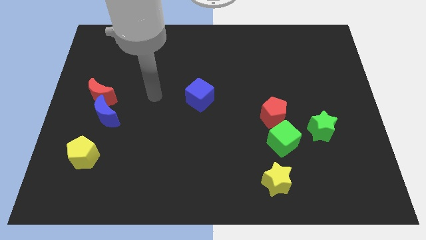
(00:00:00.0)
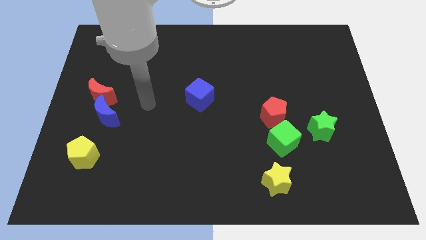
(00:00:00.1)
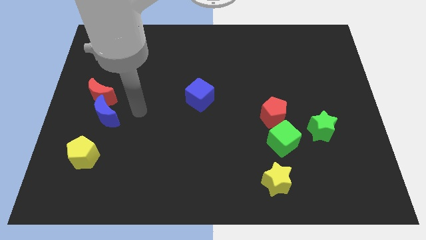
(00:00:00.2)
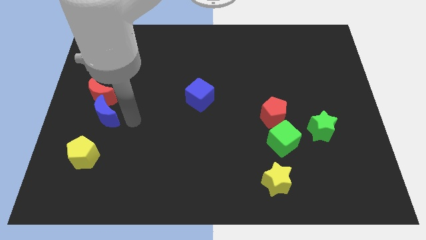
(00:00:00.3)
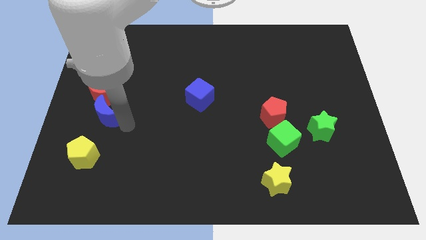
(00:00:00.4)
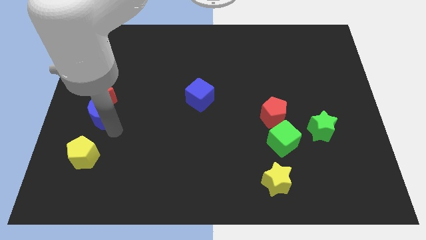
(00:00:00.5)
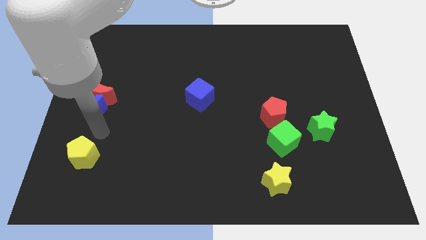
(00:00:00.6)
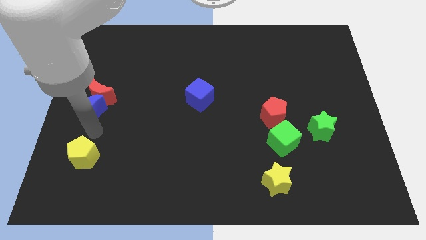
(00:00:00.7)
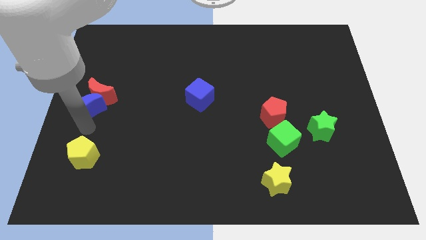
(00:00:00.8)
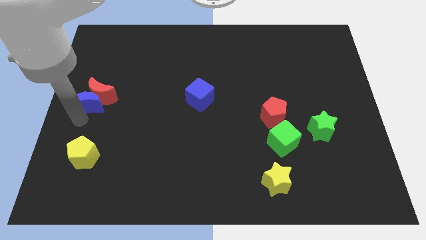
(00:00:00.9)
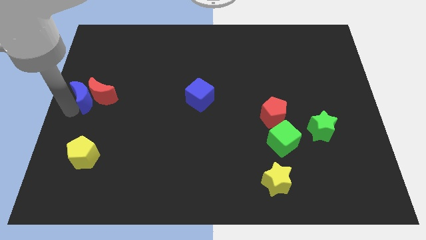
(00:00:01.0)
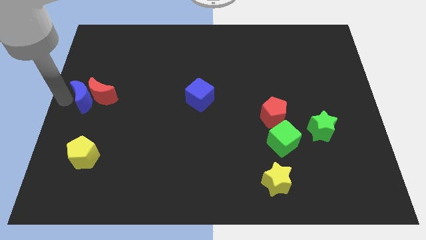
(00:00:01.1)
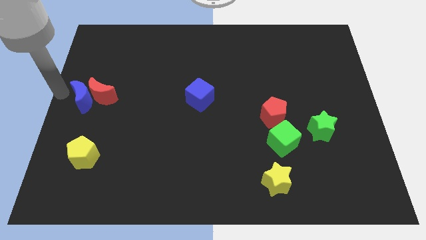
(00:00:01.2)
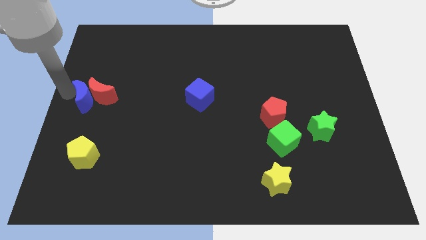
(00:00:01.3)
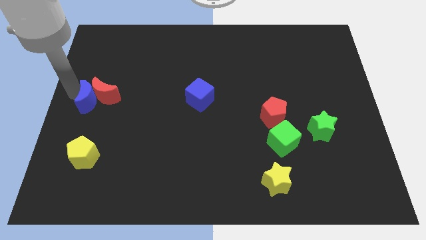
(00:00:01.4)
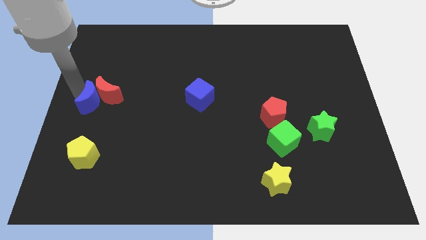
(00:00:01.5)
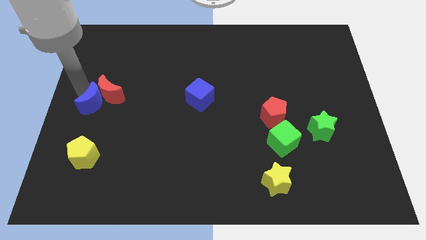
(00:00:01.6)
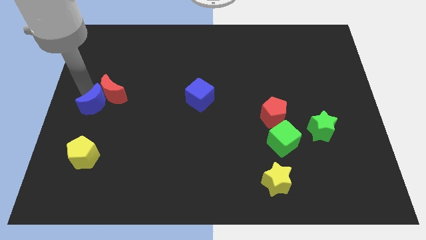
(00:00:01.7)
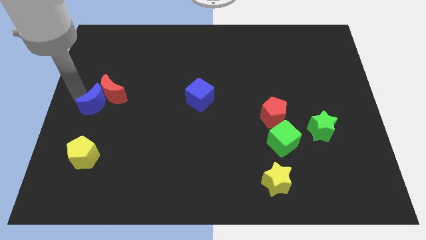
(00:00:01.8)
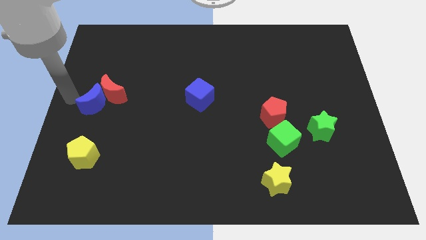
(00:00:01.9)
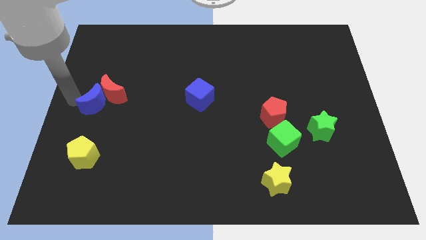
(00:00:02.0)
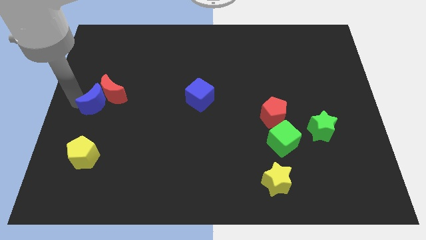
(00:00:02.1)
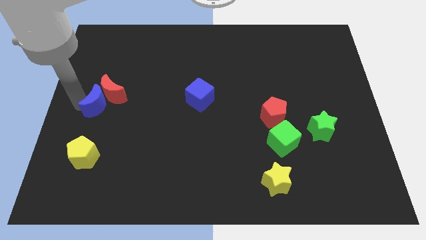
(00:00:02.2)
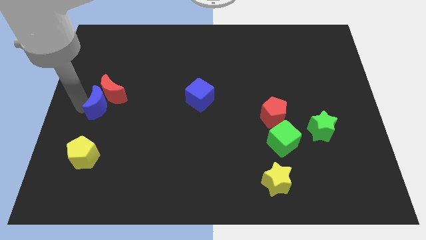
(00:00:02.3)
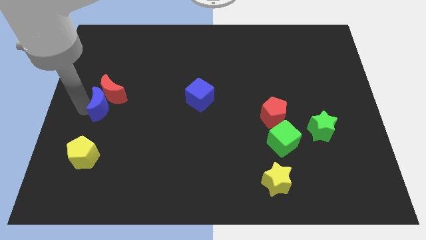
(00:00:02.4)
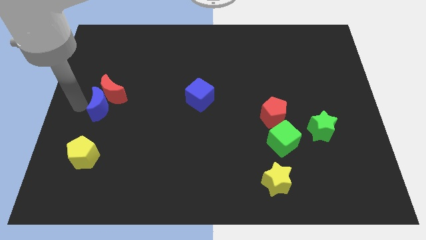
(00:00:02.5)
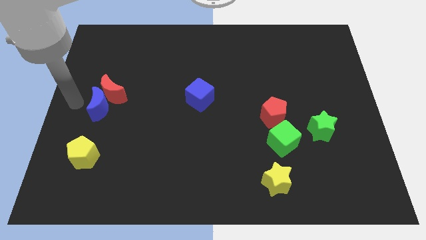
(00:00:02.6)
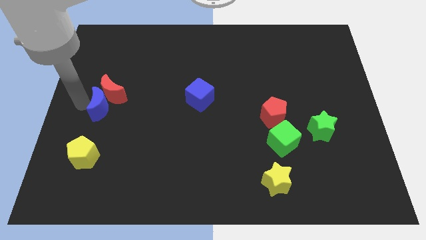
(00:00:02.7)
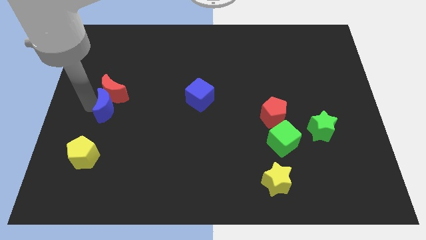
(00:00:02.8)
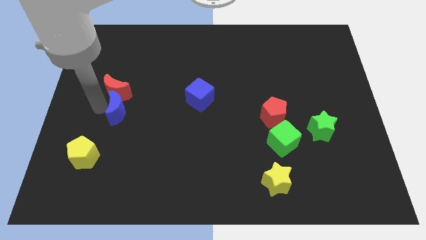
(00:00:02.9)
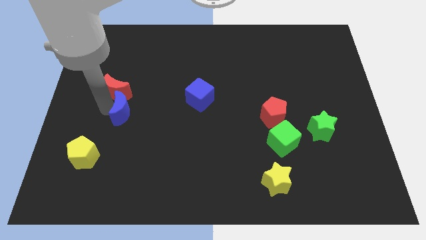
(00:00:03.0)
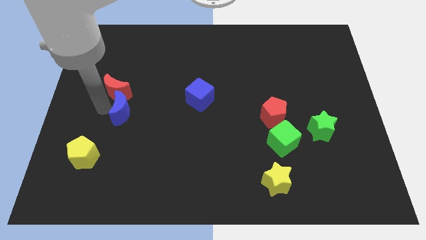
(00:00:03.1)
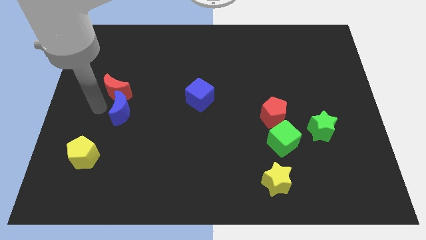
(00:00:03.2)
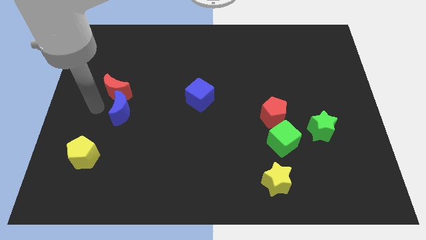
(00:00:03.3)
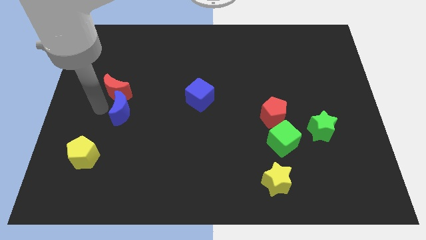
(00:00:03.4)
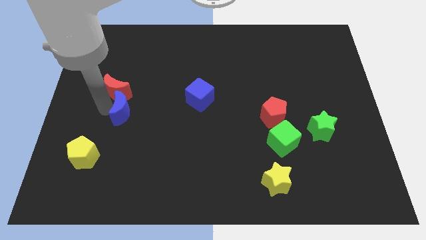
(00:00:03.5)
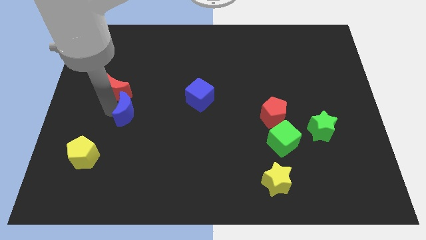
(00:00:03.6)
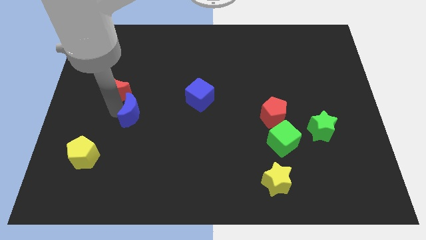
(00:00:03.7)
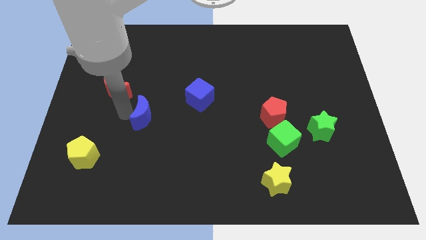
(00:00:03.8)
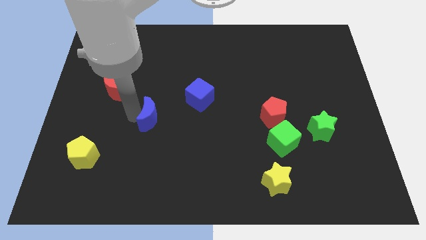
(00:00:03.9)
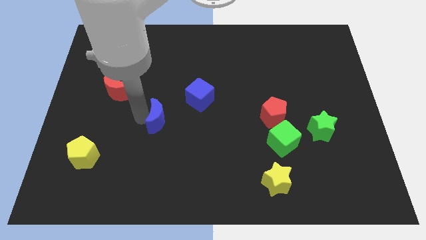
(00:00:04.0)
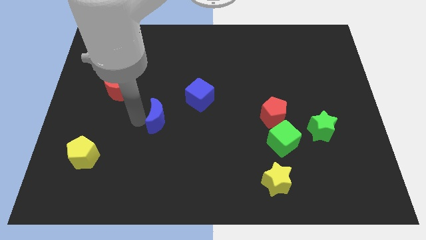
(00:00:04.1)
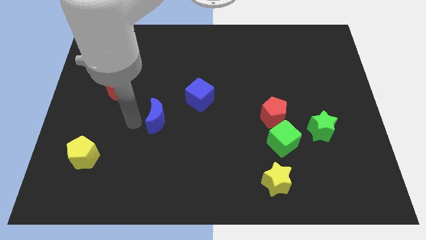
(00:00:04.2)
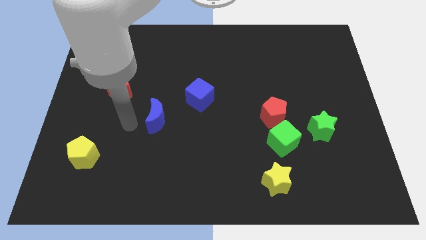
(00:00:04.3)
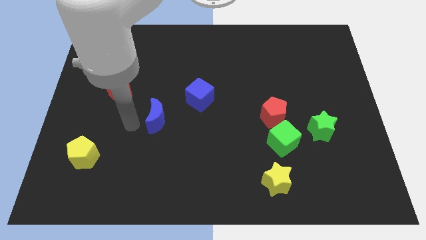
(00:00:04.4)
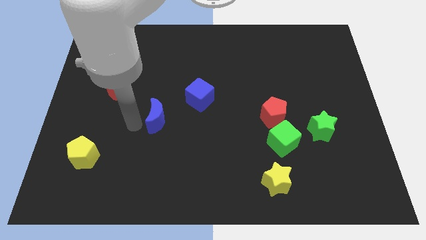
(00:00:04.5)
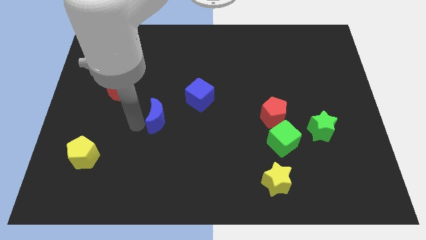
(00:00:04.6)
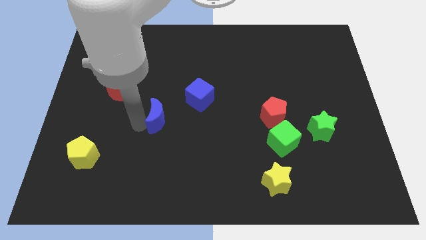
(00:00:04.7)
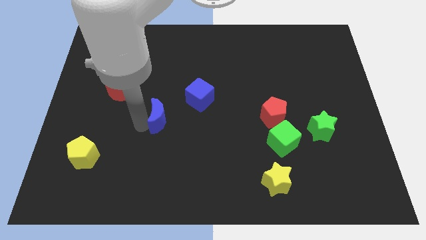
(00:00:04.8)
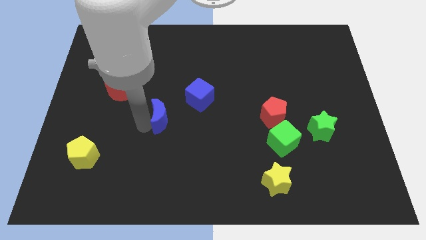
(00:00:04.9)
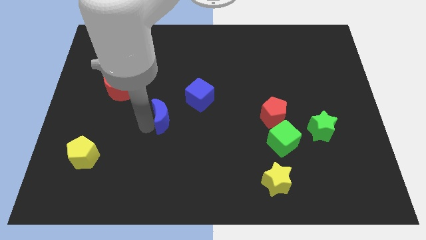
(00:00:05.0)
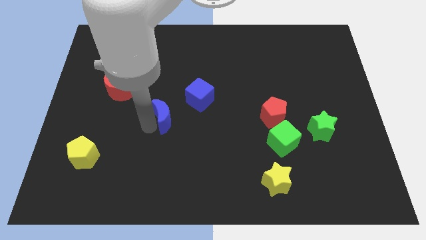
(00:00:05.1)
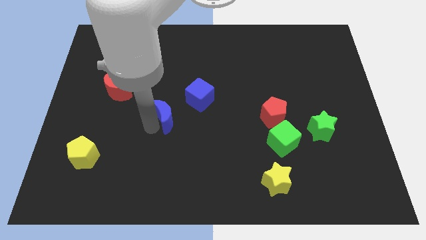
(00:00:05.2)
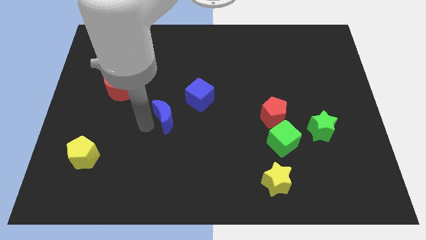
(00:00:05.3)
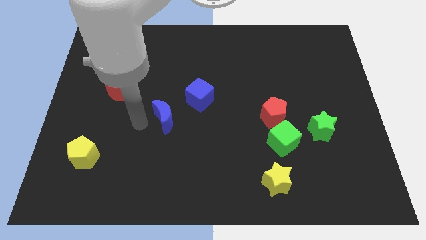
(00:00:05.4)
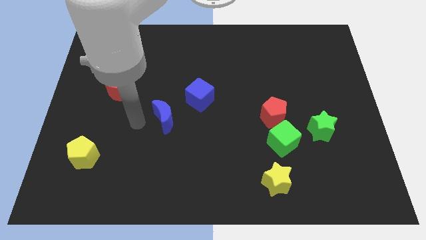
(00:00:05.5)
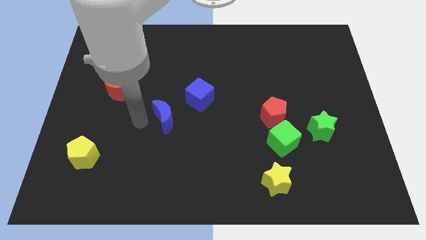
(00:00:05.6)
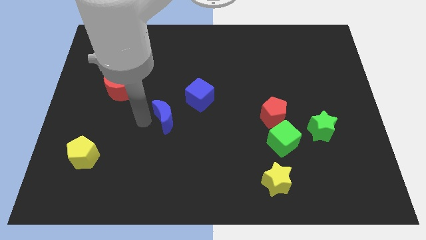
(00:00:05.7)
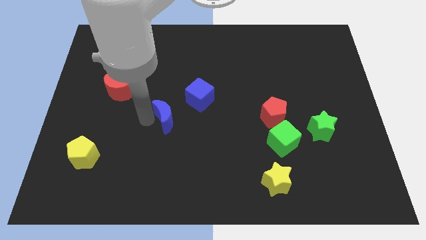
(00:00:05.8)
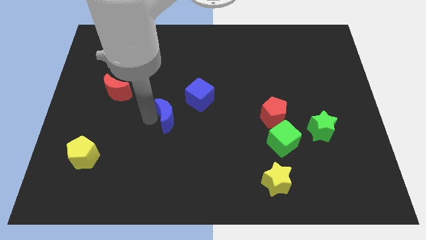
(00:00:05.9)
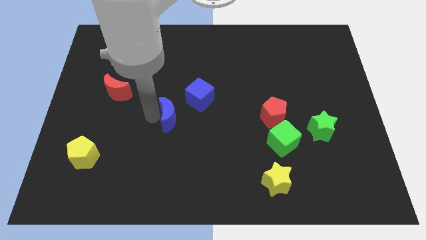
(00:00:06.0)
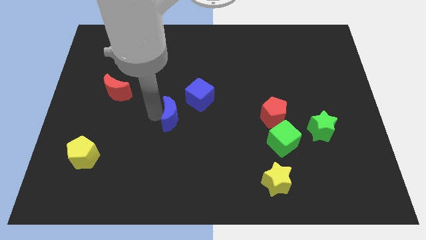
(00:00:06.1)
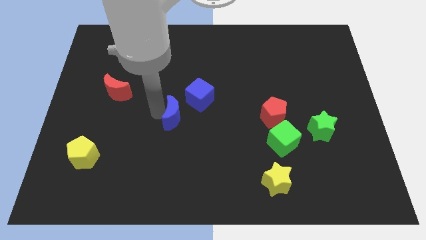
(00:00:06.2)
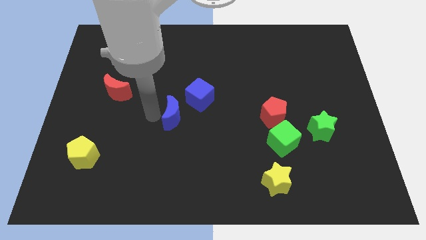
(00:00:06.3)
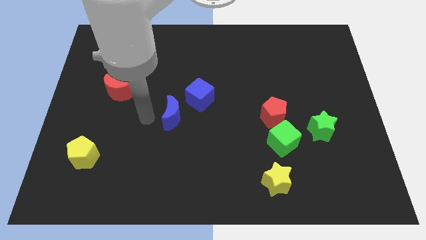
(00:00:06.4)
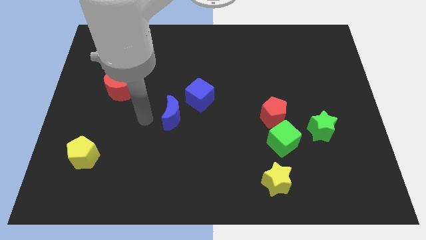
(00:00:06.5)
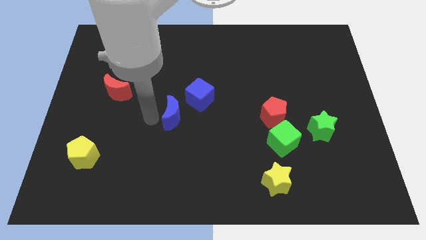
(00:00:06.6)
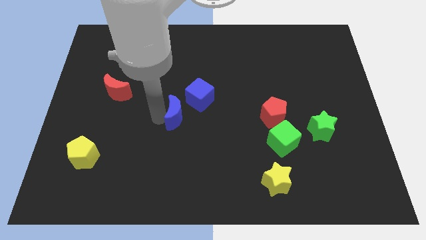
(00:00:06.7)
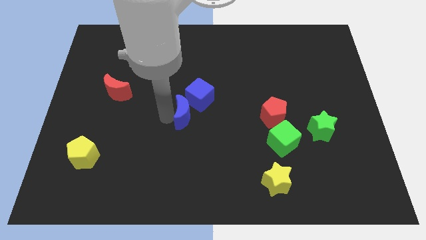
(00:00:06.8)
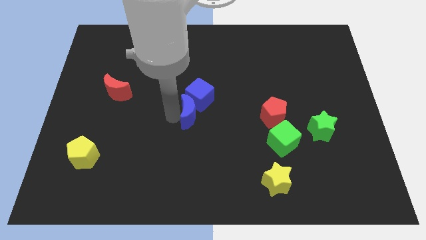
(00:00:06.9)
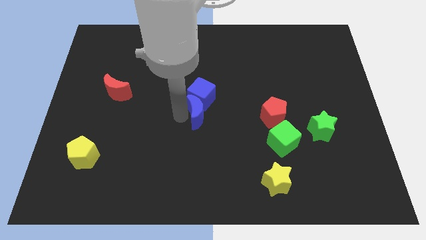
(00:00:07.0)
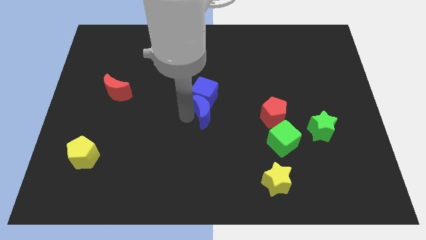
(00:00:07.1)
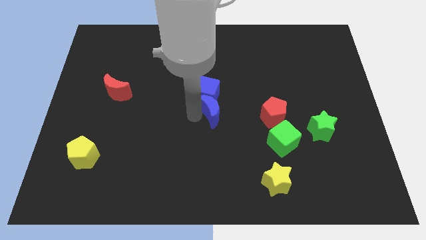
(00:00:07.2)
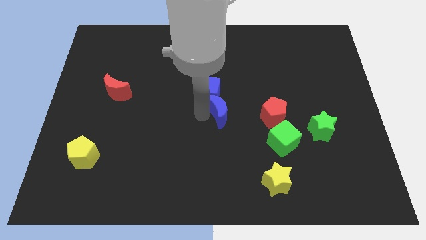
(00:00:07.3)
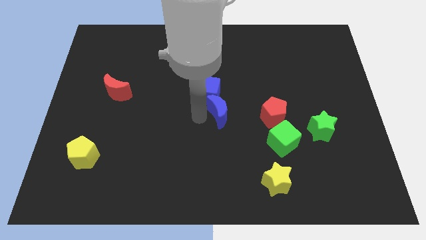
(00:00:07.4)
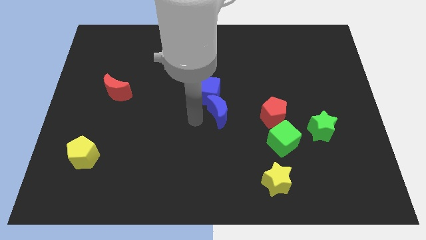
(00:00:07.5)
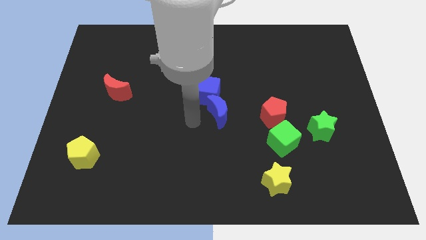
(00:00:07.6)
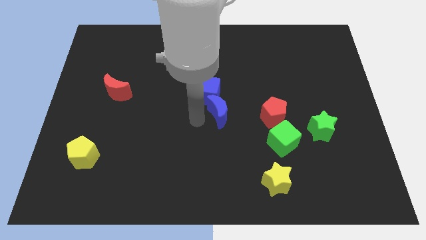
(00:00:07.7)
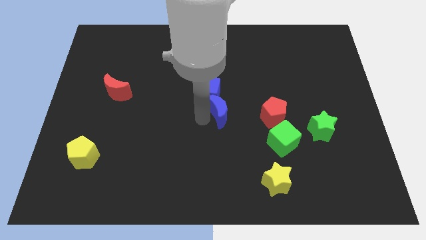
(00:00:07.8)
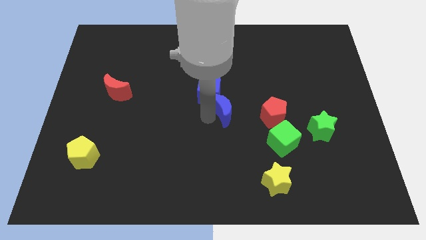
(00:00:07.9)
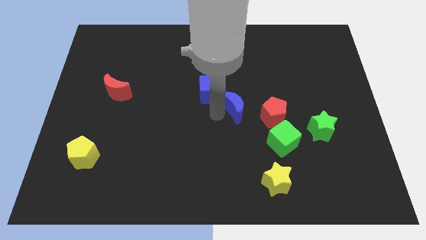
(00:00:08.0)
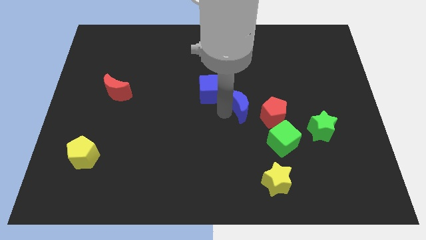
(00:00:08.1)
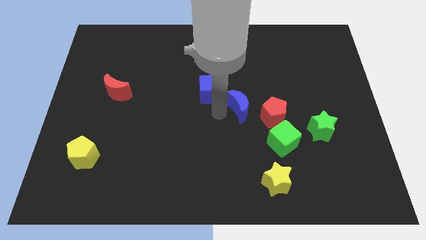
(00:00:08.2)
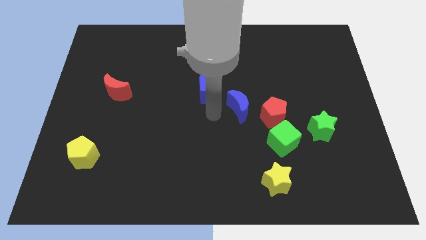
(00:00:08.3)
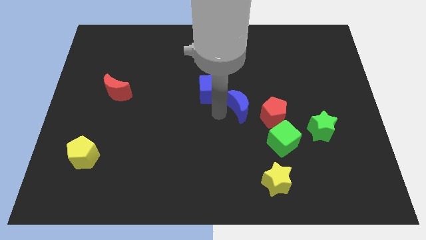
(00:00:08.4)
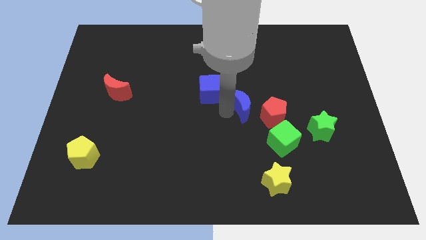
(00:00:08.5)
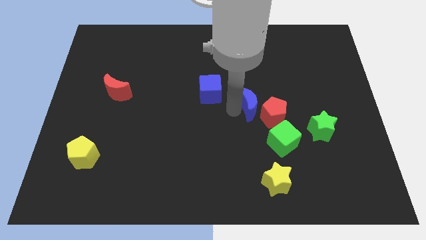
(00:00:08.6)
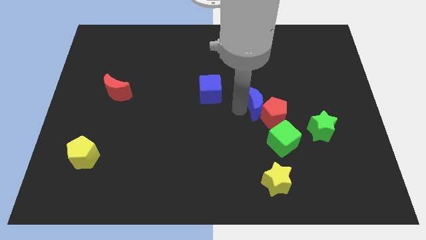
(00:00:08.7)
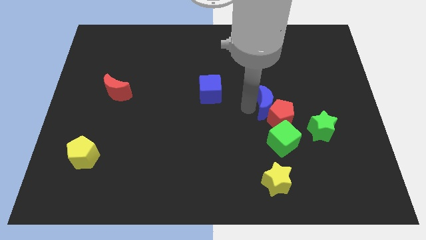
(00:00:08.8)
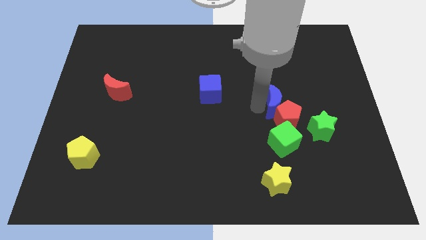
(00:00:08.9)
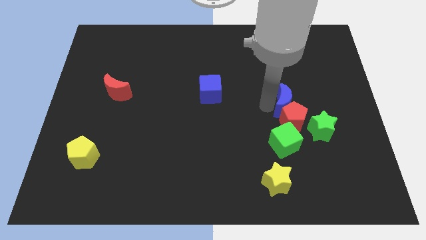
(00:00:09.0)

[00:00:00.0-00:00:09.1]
move the blue moon diagonally up and to the right of the red pentagon
